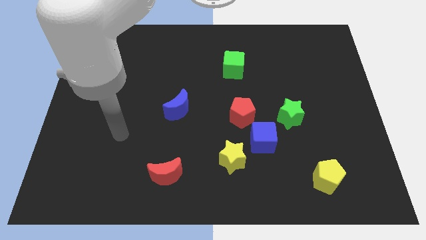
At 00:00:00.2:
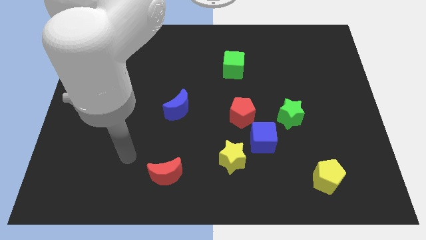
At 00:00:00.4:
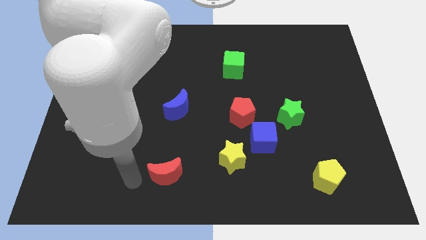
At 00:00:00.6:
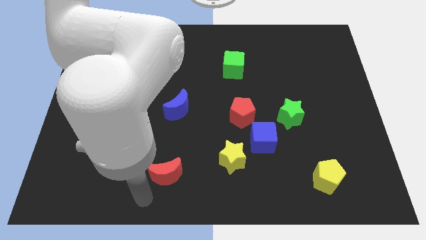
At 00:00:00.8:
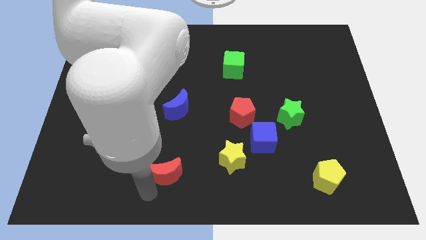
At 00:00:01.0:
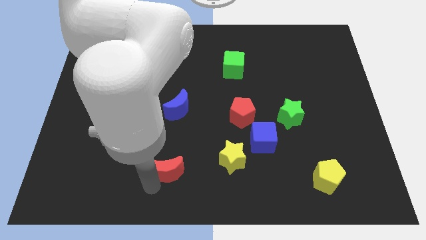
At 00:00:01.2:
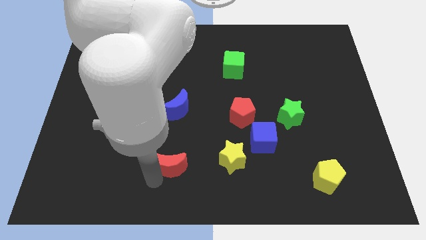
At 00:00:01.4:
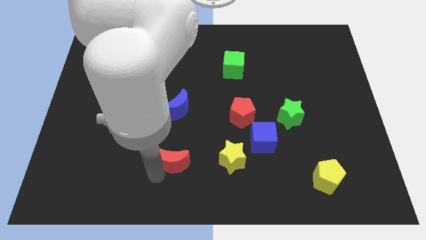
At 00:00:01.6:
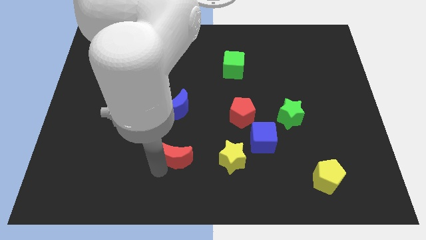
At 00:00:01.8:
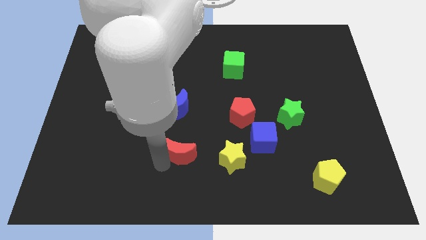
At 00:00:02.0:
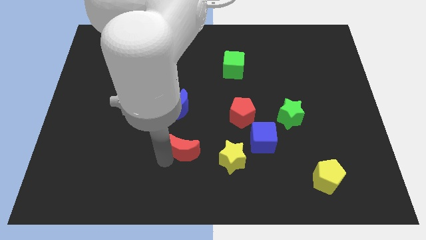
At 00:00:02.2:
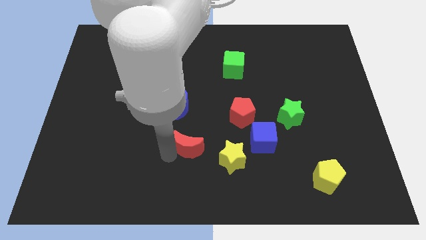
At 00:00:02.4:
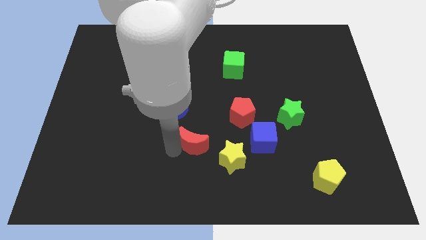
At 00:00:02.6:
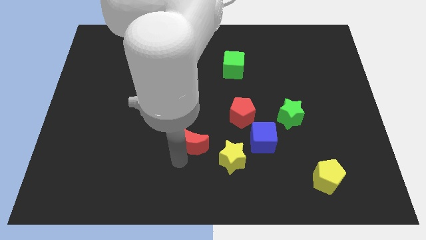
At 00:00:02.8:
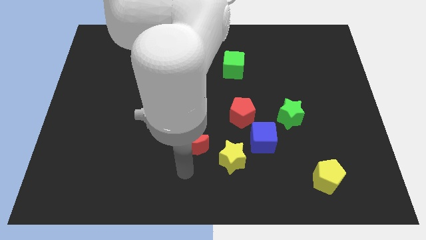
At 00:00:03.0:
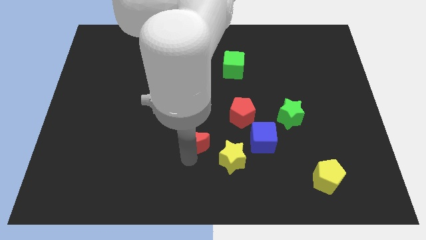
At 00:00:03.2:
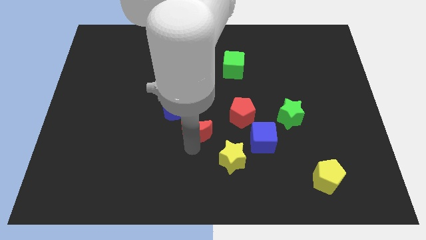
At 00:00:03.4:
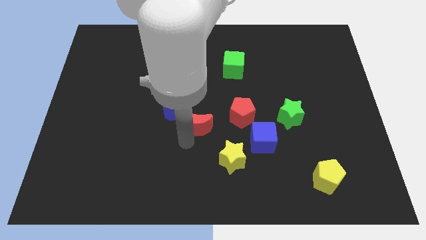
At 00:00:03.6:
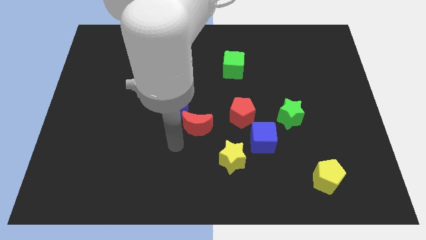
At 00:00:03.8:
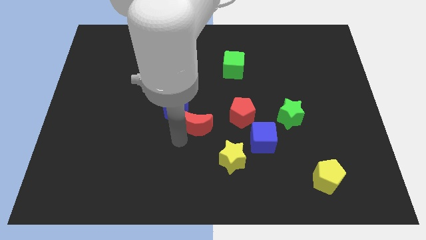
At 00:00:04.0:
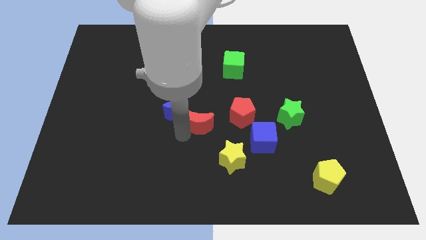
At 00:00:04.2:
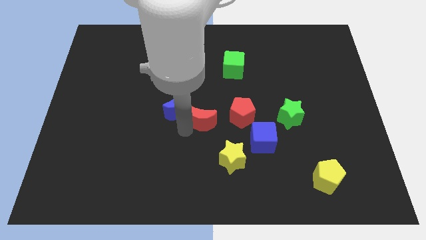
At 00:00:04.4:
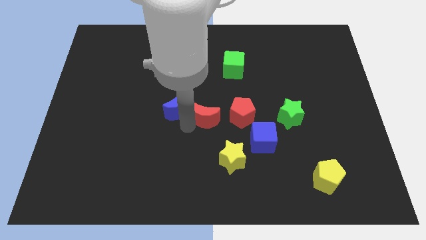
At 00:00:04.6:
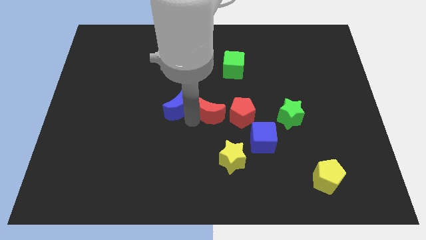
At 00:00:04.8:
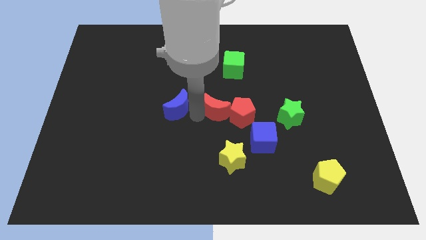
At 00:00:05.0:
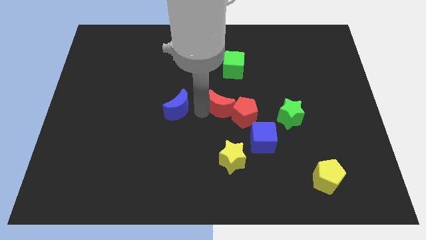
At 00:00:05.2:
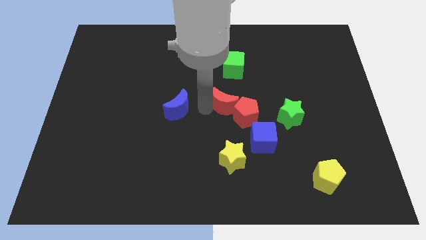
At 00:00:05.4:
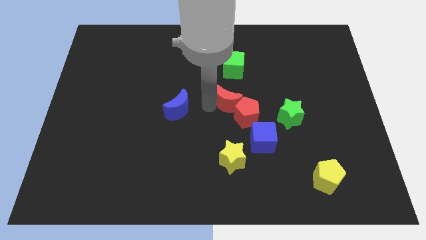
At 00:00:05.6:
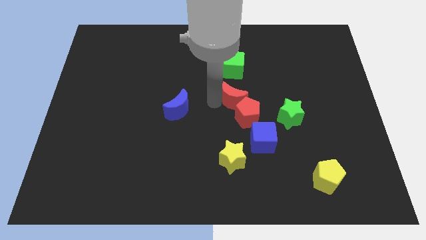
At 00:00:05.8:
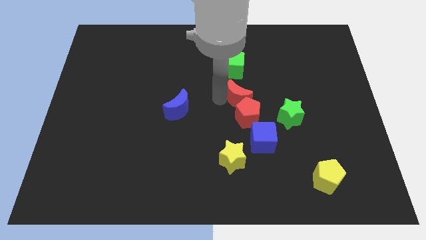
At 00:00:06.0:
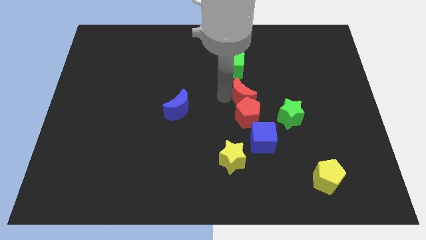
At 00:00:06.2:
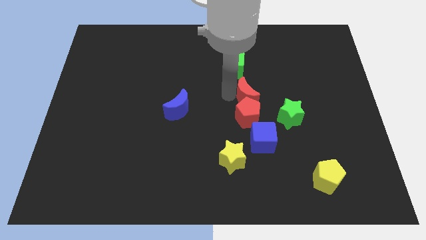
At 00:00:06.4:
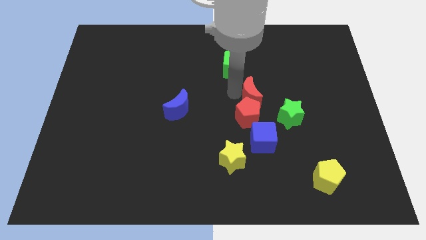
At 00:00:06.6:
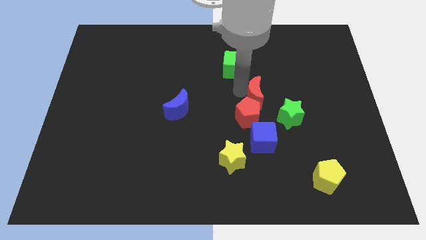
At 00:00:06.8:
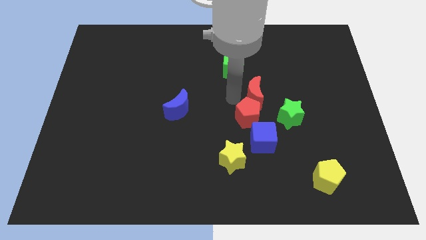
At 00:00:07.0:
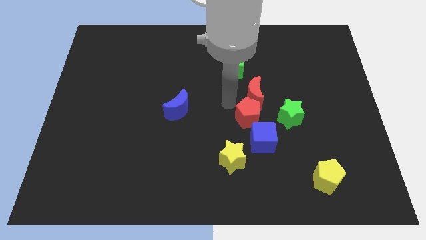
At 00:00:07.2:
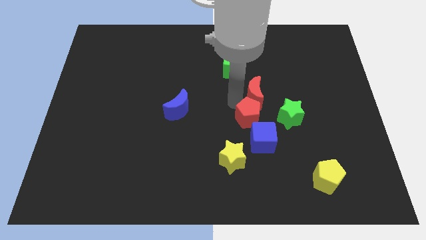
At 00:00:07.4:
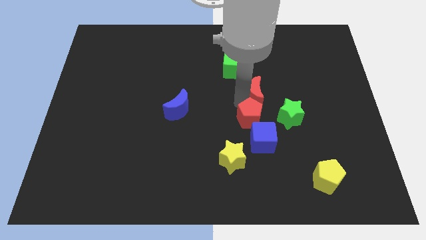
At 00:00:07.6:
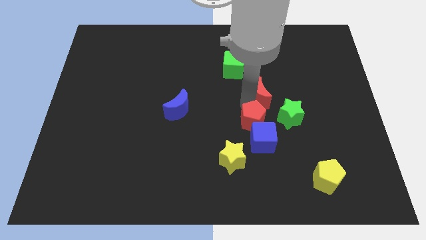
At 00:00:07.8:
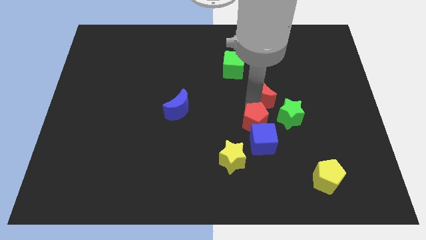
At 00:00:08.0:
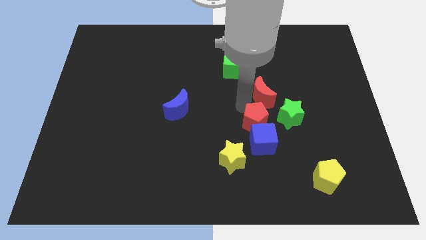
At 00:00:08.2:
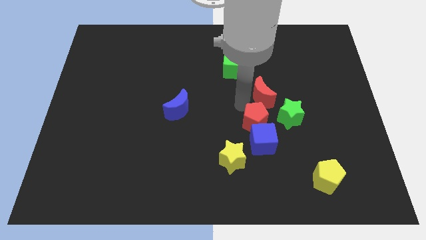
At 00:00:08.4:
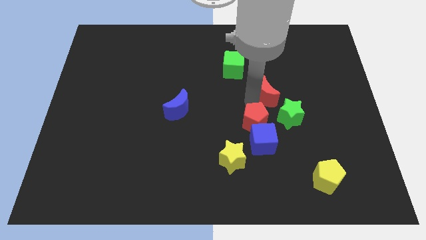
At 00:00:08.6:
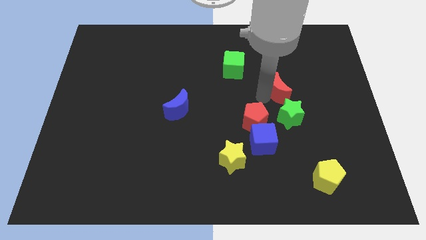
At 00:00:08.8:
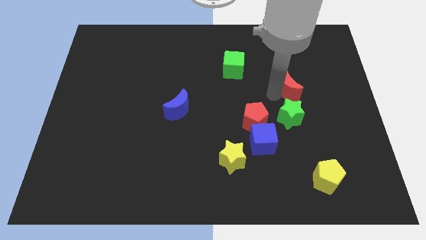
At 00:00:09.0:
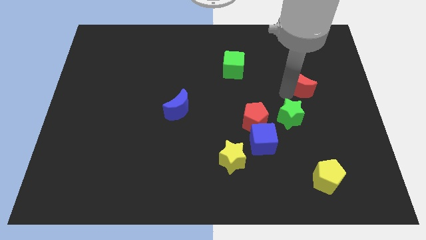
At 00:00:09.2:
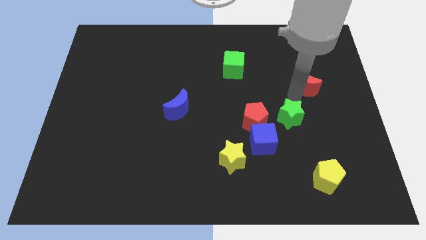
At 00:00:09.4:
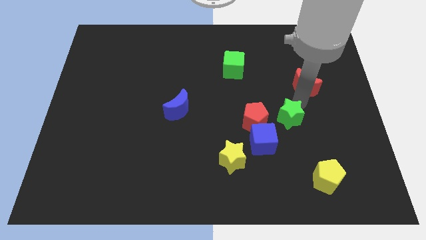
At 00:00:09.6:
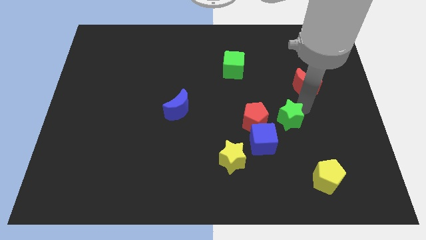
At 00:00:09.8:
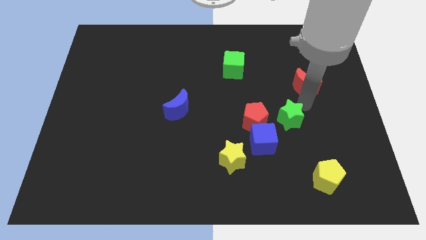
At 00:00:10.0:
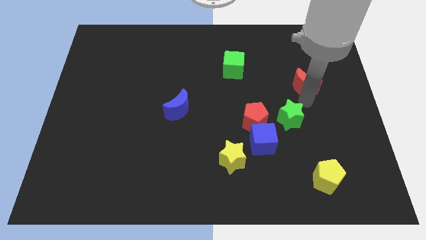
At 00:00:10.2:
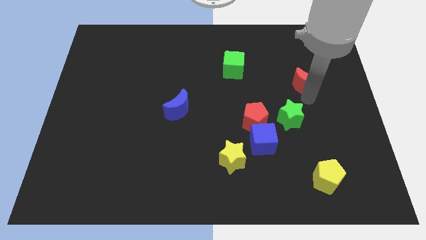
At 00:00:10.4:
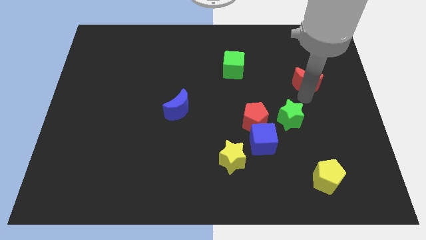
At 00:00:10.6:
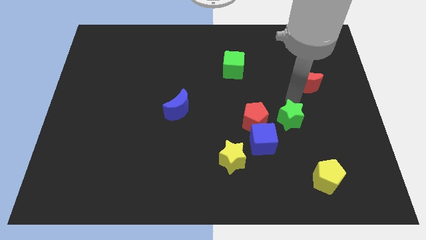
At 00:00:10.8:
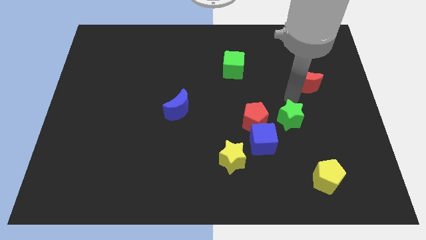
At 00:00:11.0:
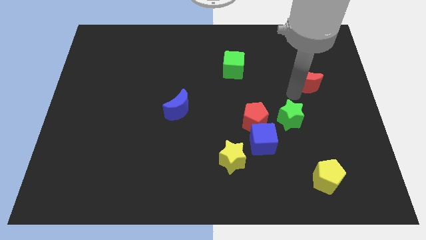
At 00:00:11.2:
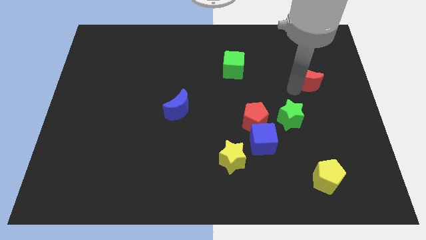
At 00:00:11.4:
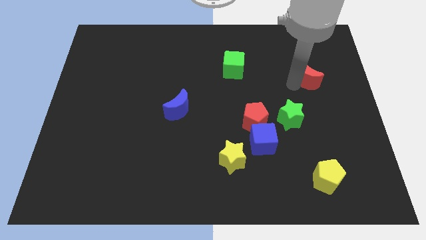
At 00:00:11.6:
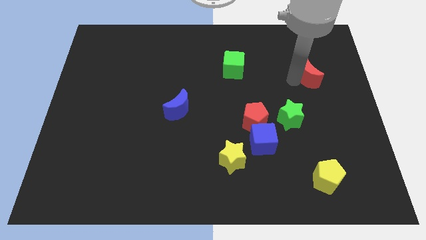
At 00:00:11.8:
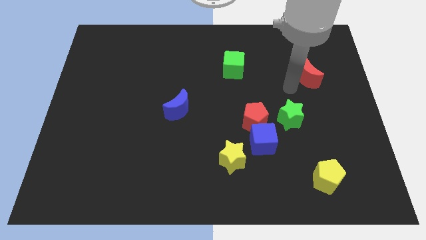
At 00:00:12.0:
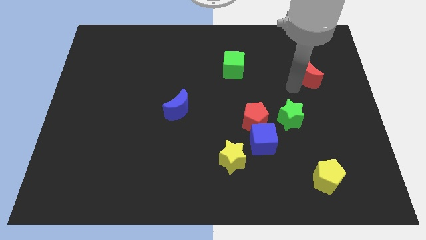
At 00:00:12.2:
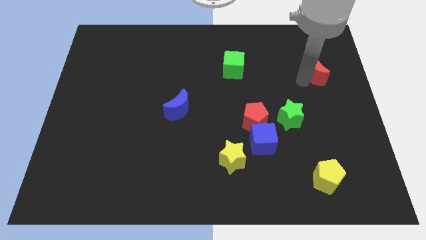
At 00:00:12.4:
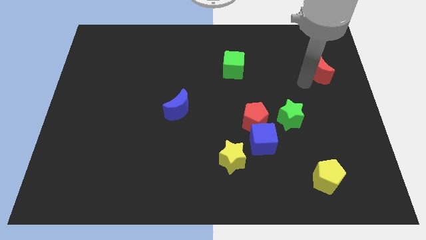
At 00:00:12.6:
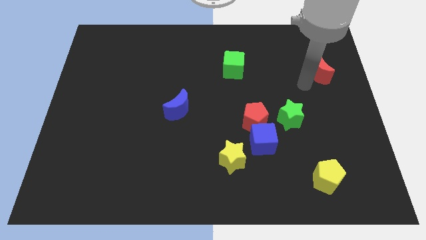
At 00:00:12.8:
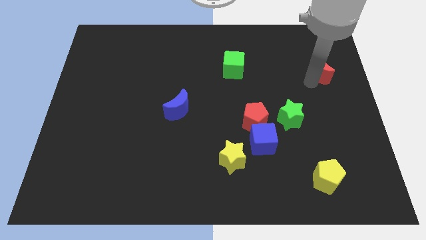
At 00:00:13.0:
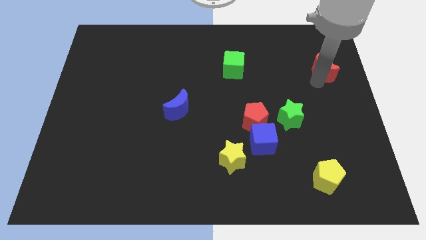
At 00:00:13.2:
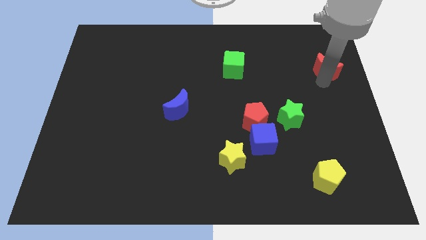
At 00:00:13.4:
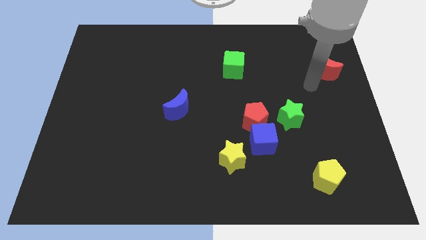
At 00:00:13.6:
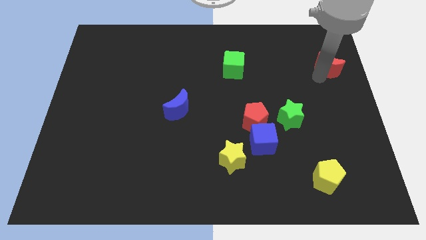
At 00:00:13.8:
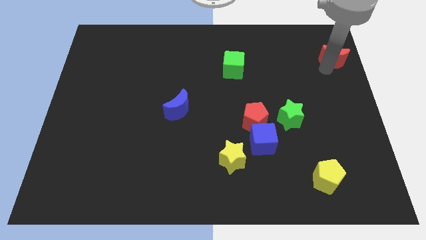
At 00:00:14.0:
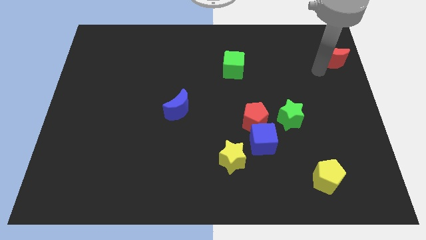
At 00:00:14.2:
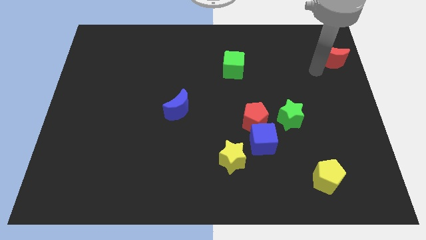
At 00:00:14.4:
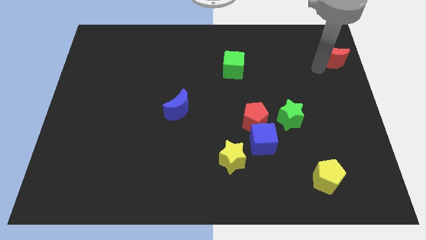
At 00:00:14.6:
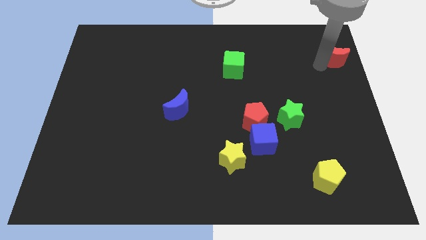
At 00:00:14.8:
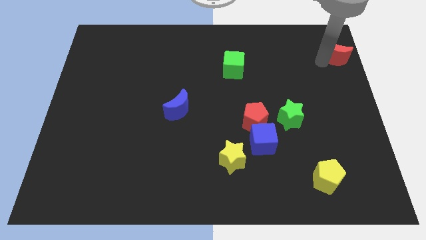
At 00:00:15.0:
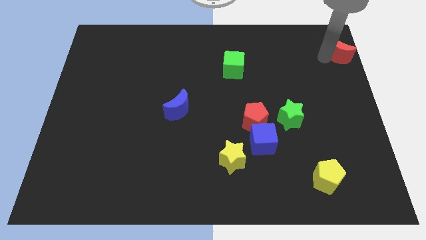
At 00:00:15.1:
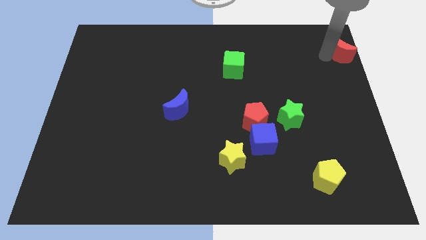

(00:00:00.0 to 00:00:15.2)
put the red moon to the upper right corner
